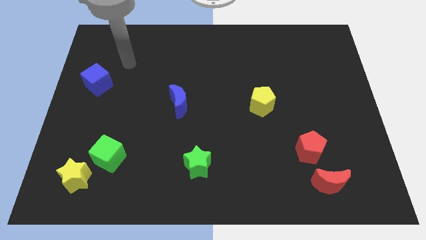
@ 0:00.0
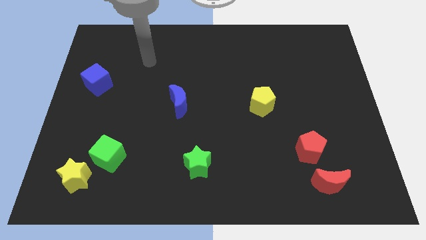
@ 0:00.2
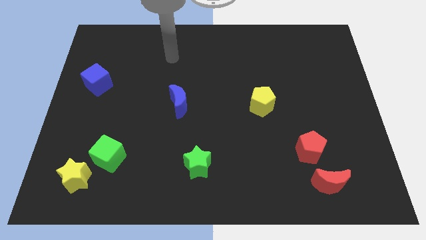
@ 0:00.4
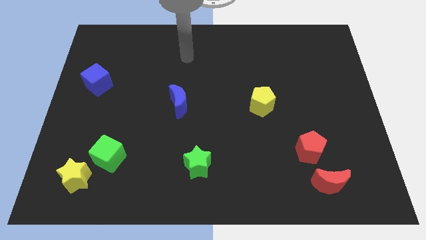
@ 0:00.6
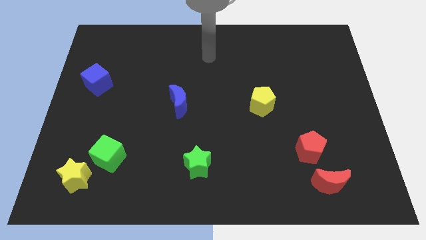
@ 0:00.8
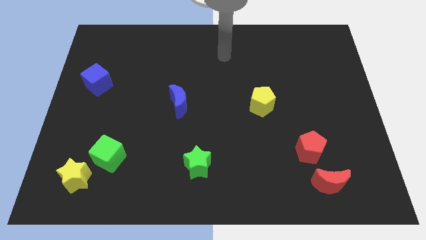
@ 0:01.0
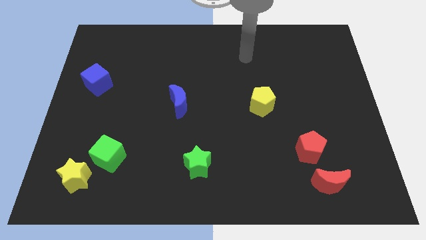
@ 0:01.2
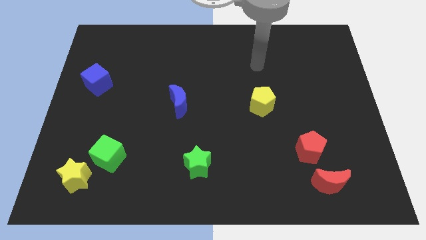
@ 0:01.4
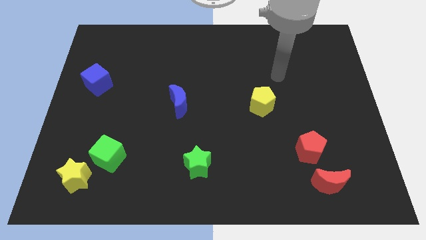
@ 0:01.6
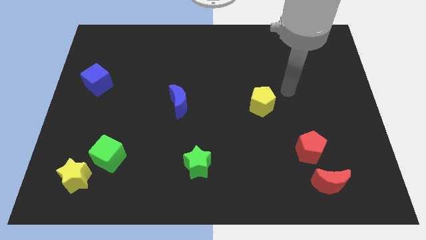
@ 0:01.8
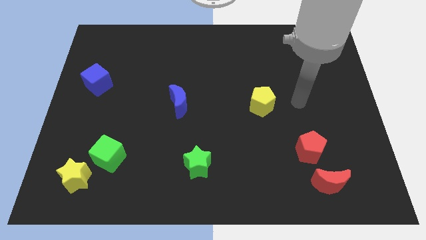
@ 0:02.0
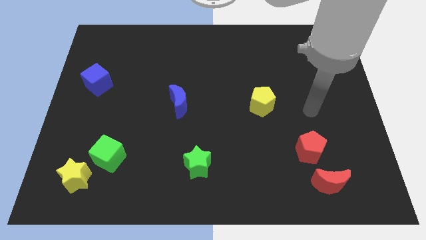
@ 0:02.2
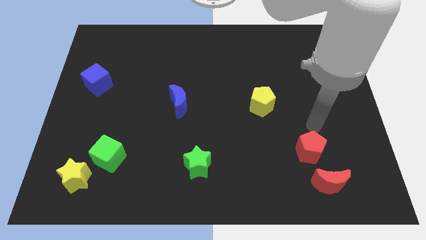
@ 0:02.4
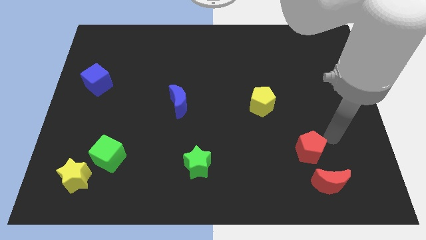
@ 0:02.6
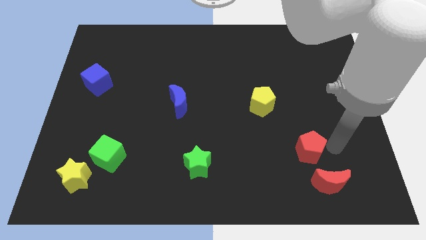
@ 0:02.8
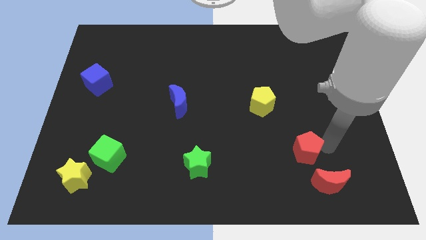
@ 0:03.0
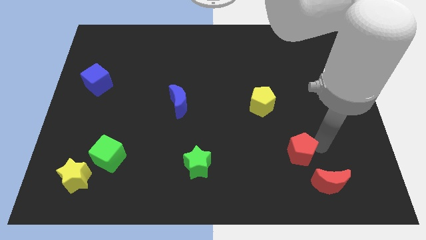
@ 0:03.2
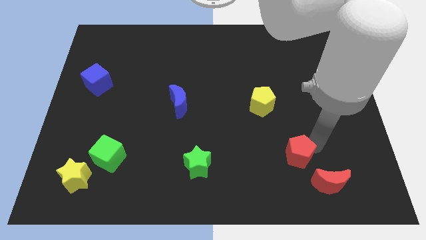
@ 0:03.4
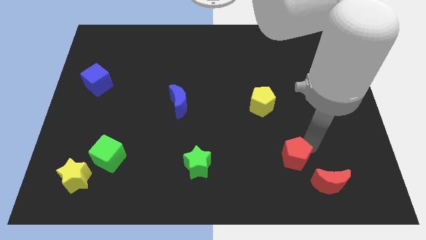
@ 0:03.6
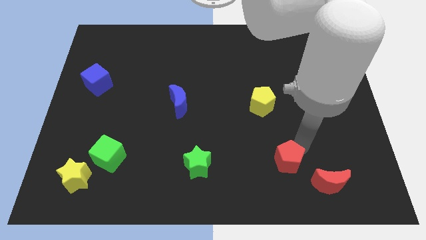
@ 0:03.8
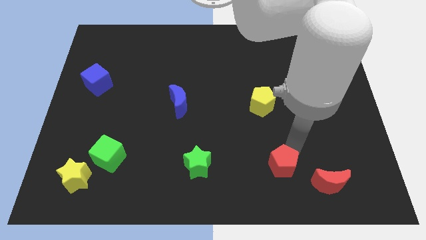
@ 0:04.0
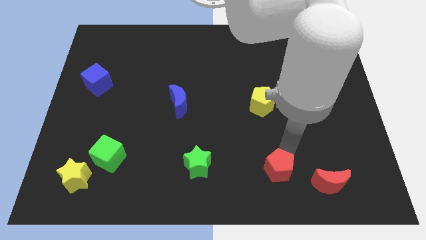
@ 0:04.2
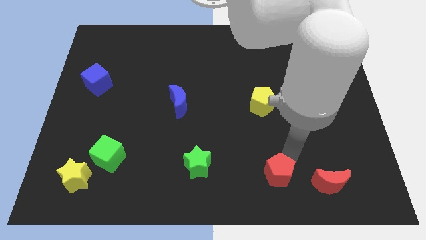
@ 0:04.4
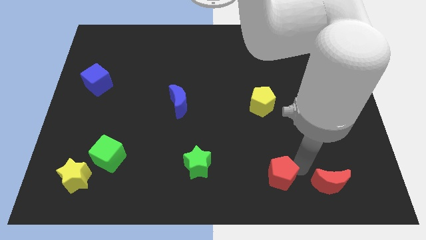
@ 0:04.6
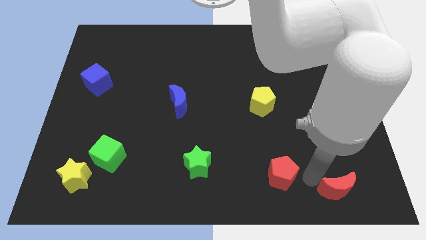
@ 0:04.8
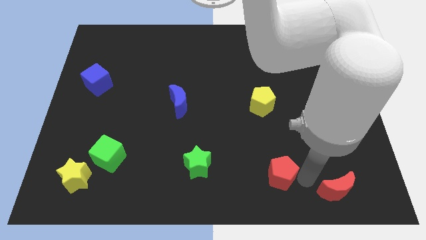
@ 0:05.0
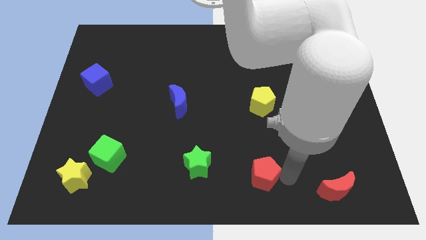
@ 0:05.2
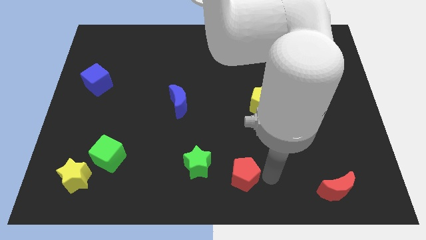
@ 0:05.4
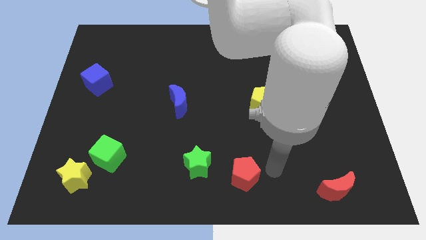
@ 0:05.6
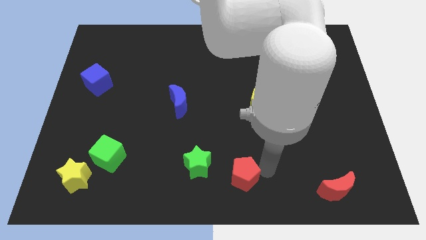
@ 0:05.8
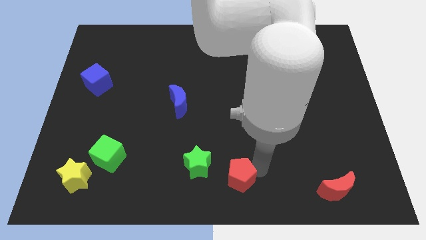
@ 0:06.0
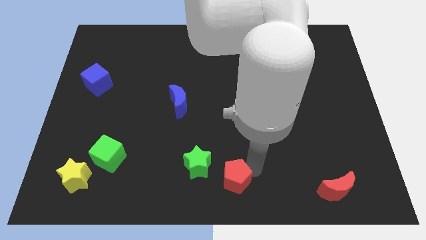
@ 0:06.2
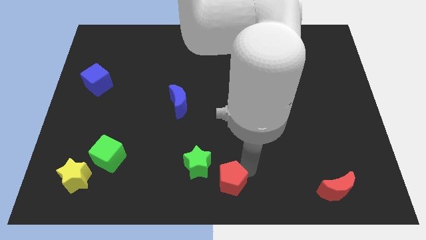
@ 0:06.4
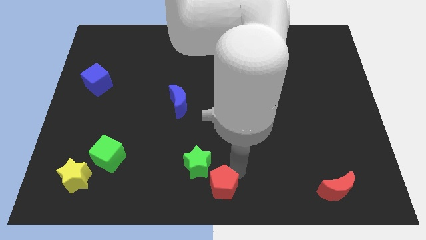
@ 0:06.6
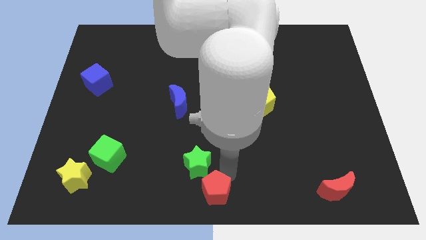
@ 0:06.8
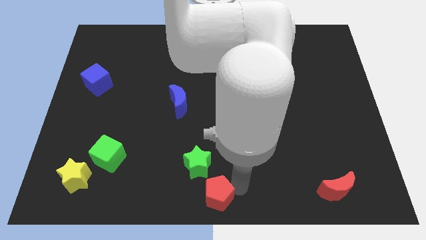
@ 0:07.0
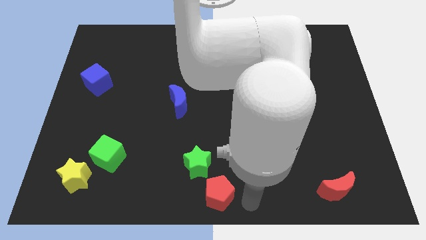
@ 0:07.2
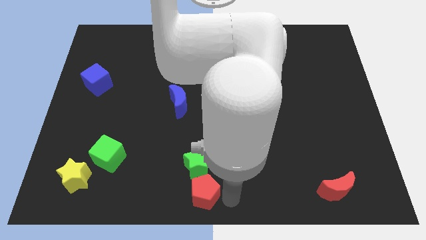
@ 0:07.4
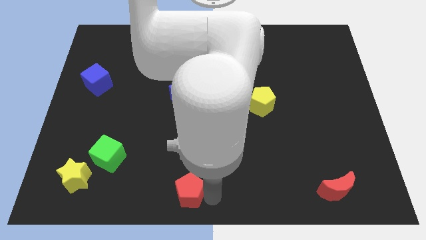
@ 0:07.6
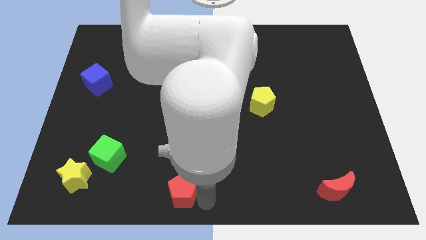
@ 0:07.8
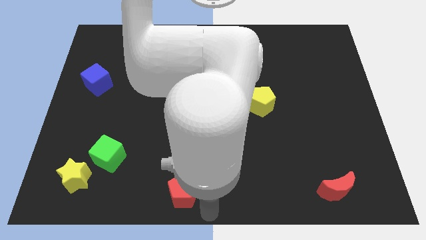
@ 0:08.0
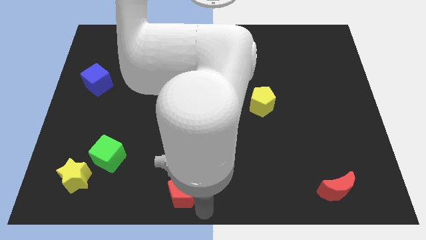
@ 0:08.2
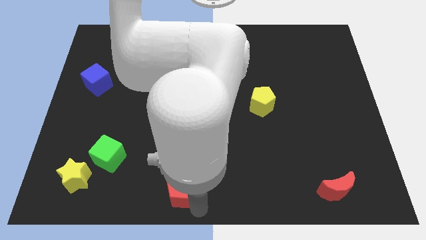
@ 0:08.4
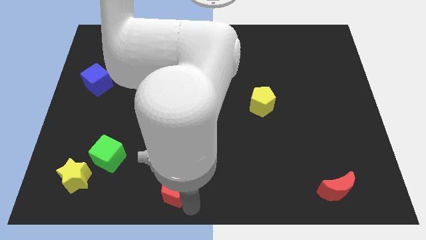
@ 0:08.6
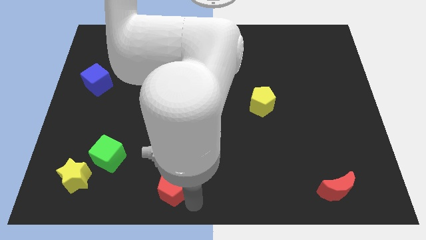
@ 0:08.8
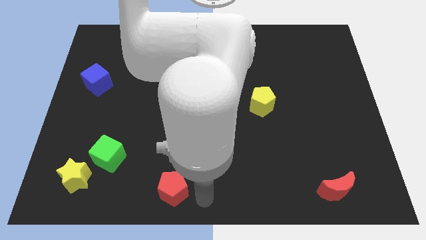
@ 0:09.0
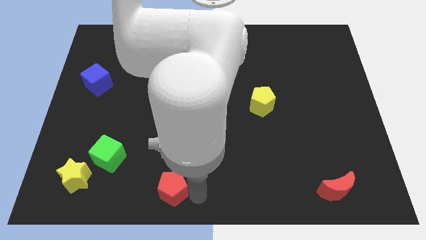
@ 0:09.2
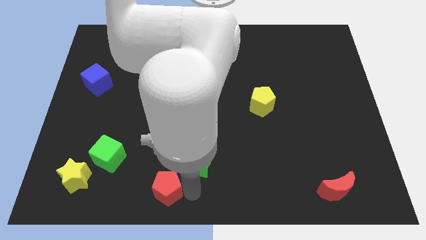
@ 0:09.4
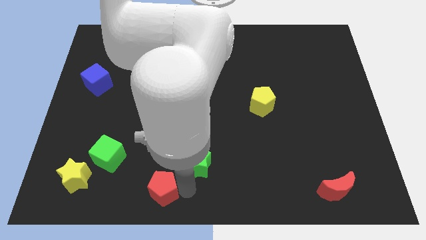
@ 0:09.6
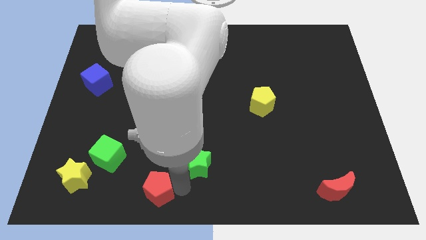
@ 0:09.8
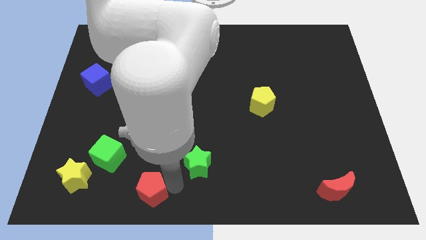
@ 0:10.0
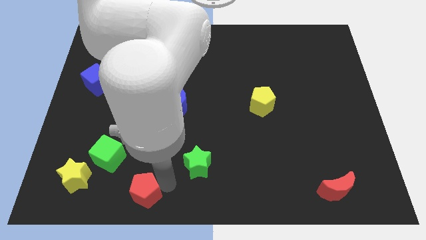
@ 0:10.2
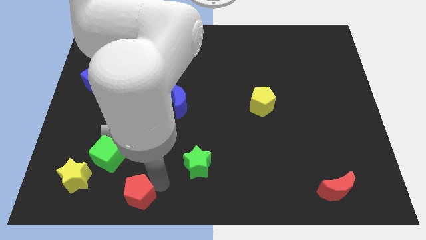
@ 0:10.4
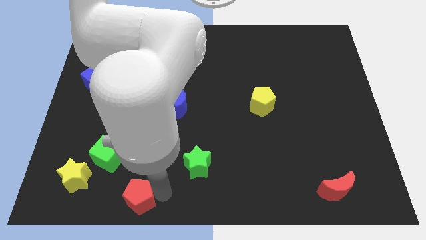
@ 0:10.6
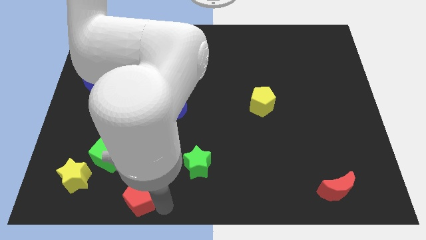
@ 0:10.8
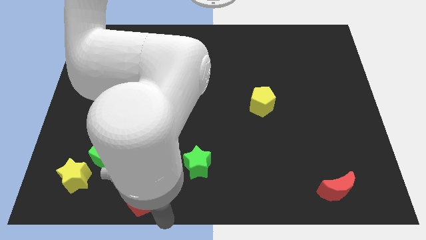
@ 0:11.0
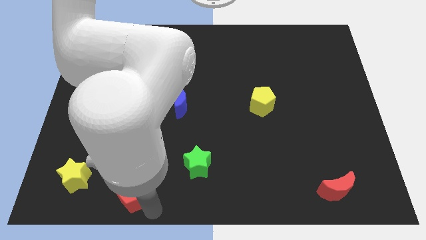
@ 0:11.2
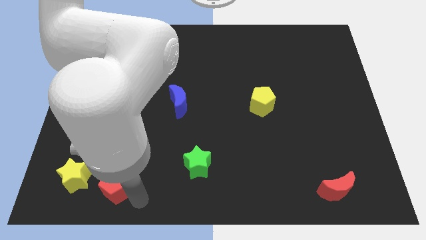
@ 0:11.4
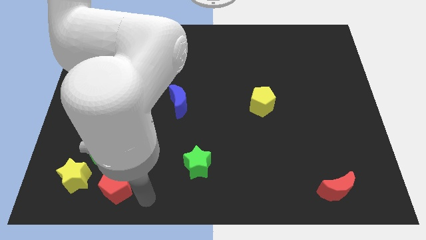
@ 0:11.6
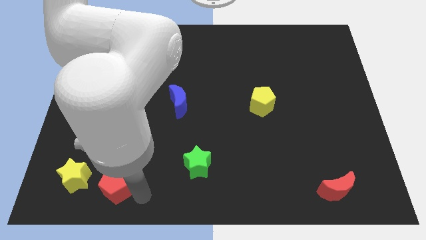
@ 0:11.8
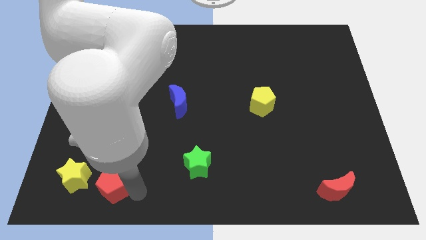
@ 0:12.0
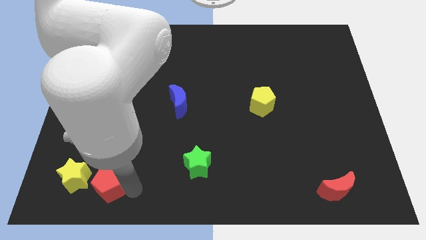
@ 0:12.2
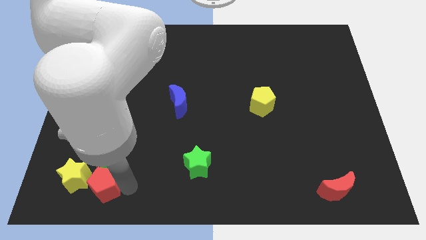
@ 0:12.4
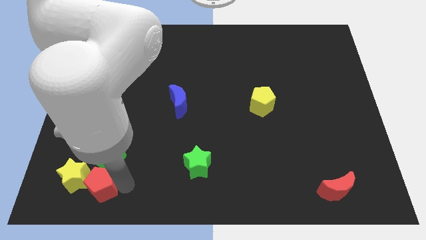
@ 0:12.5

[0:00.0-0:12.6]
push the red pentagon towards the yellow star
